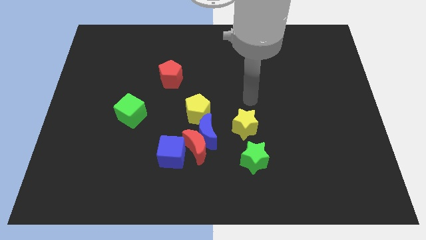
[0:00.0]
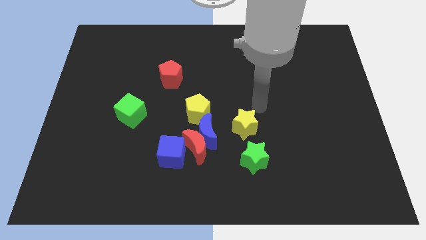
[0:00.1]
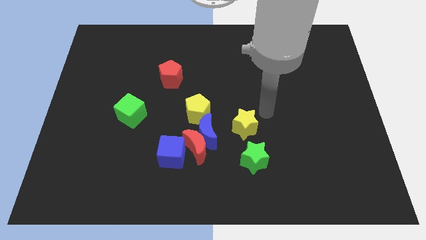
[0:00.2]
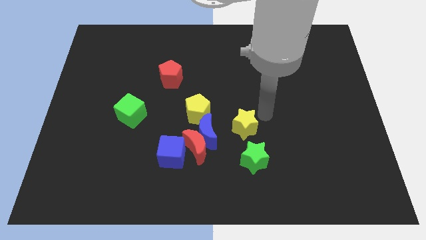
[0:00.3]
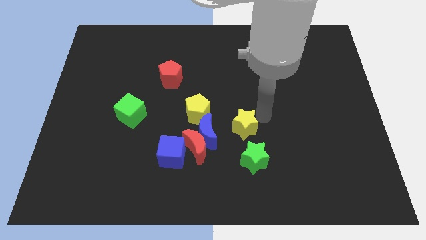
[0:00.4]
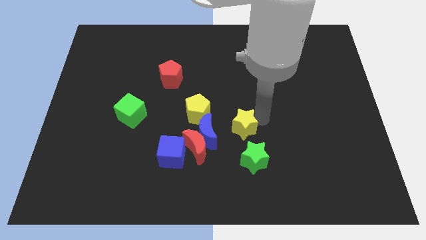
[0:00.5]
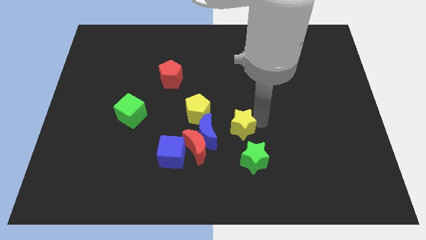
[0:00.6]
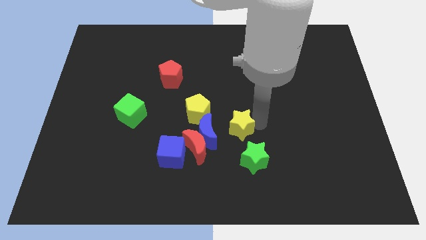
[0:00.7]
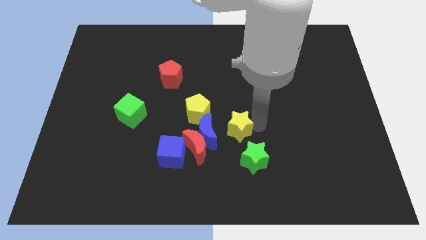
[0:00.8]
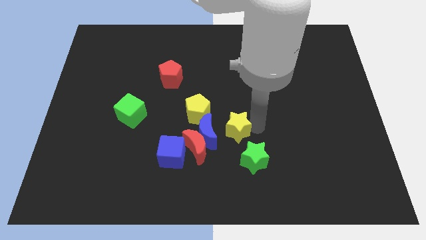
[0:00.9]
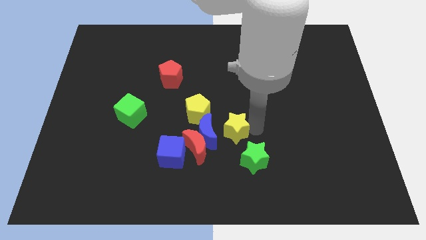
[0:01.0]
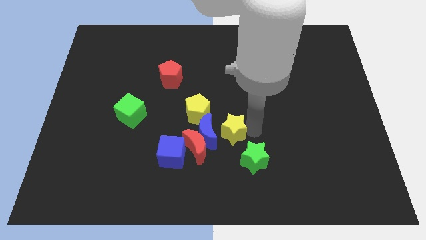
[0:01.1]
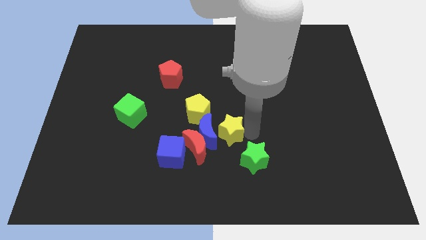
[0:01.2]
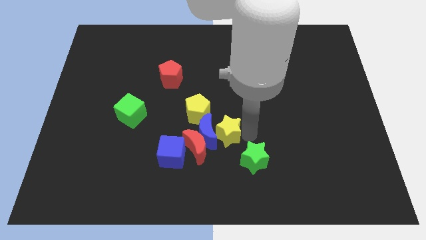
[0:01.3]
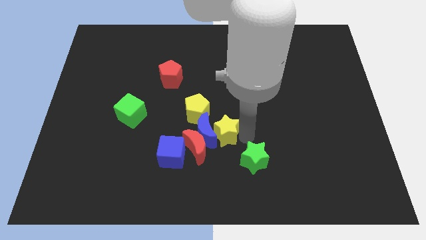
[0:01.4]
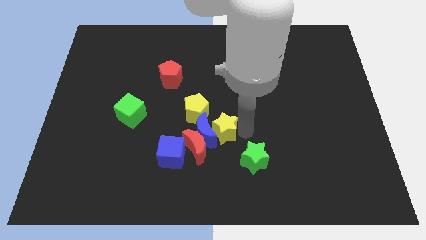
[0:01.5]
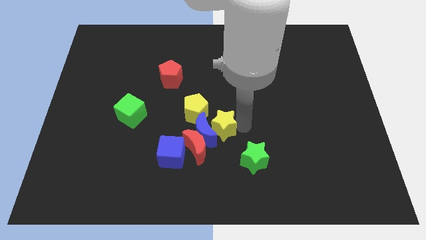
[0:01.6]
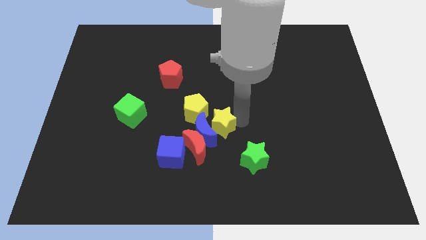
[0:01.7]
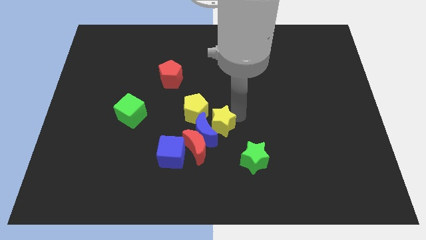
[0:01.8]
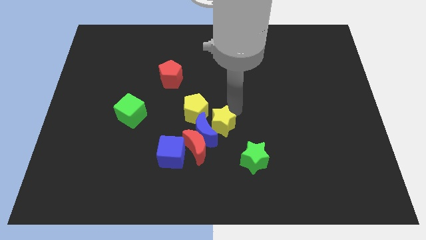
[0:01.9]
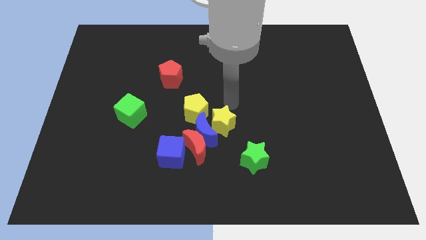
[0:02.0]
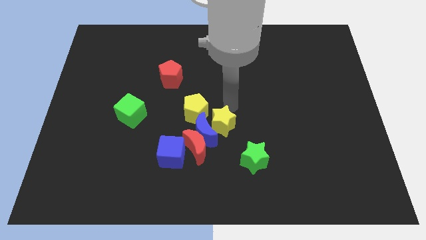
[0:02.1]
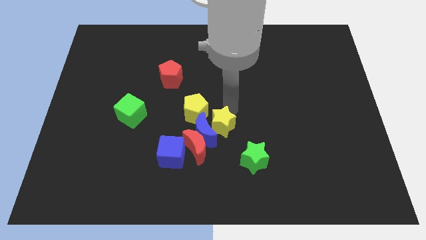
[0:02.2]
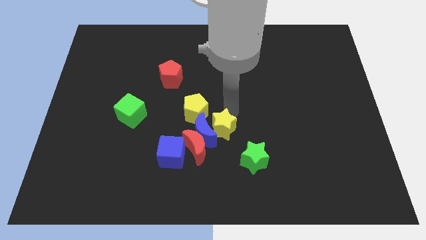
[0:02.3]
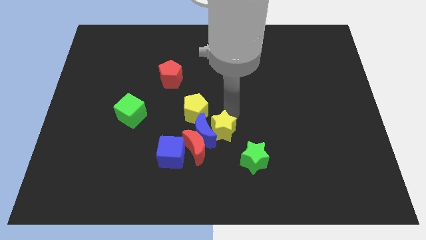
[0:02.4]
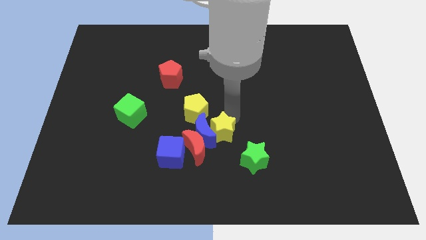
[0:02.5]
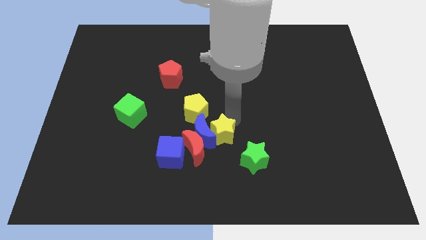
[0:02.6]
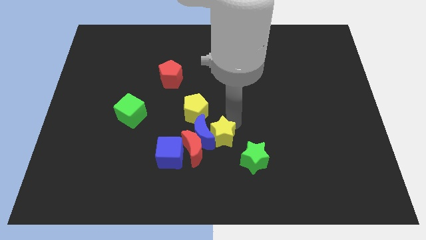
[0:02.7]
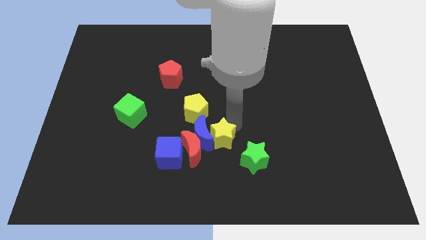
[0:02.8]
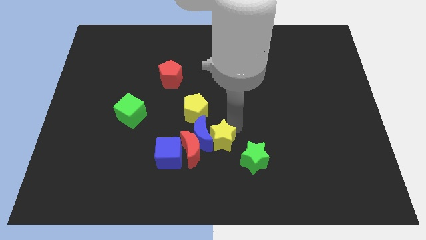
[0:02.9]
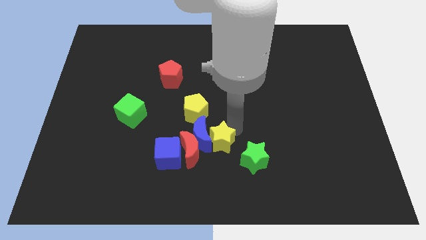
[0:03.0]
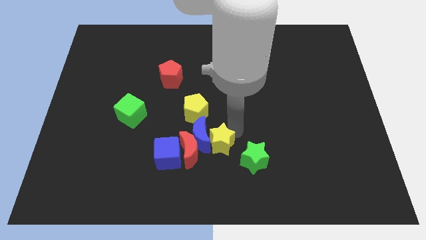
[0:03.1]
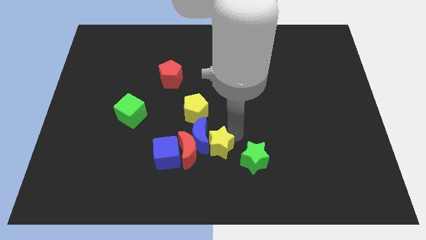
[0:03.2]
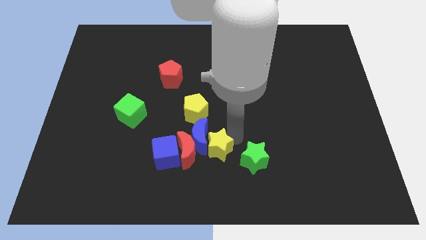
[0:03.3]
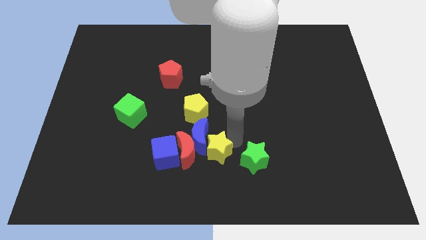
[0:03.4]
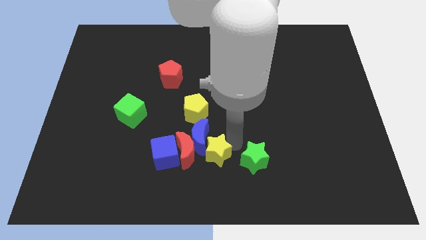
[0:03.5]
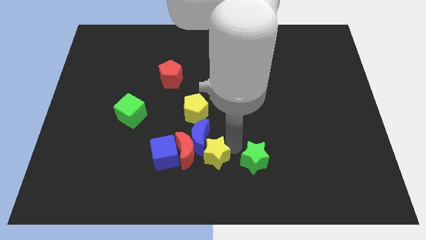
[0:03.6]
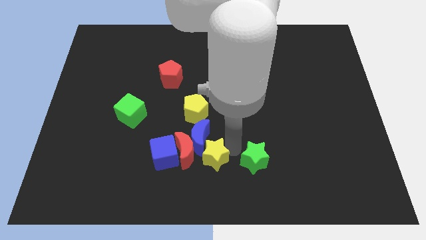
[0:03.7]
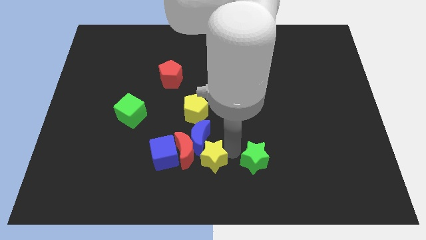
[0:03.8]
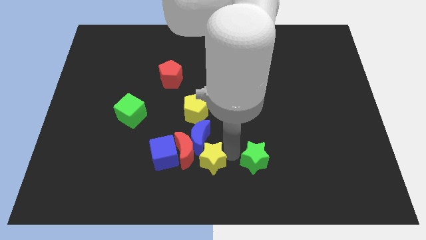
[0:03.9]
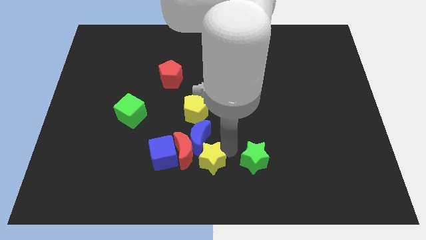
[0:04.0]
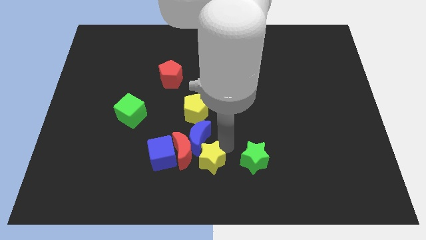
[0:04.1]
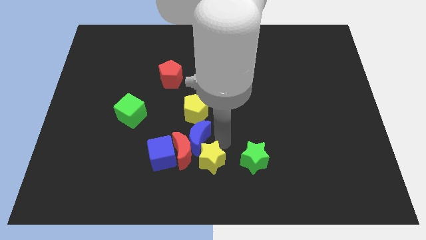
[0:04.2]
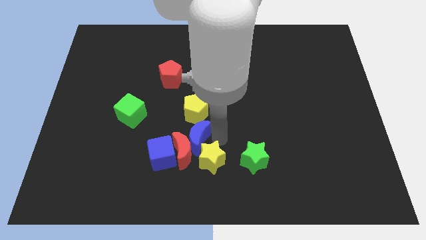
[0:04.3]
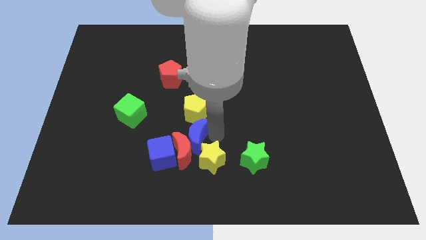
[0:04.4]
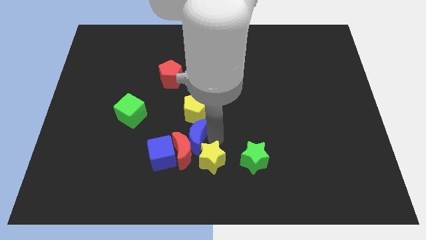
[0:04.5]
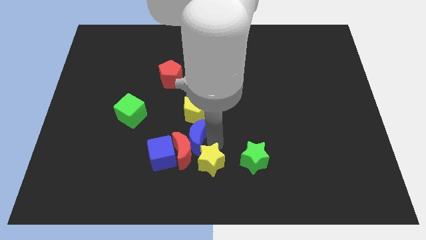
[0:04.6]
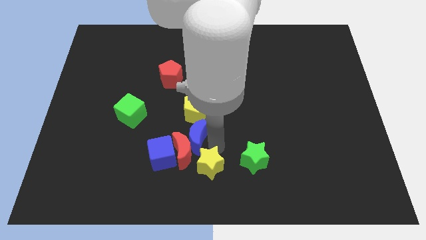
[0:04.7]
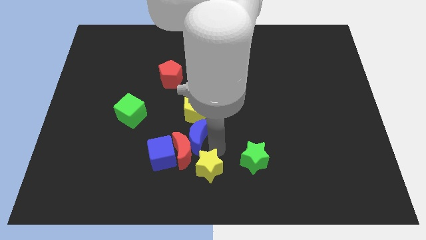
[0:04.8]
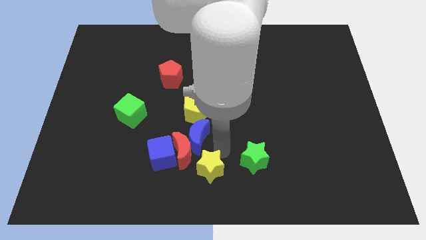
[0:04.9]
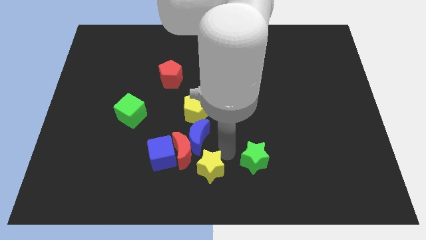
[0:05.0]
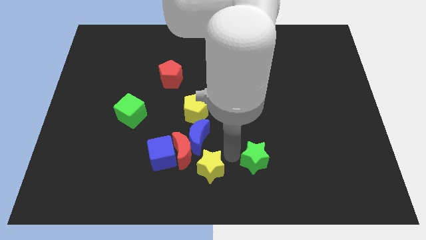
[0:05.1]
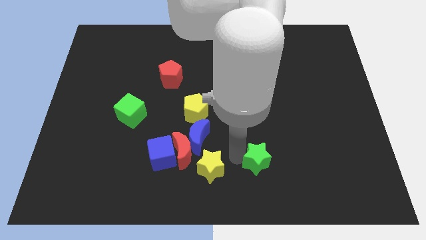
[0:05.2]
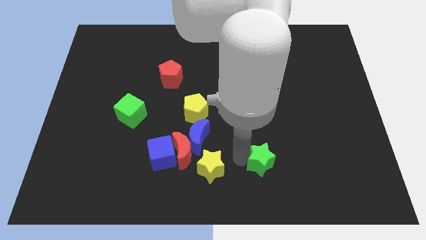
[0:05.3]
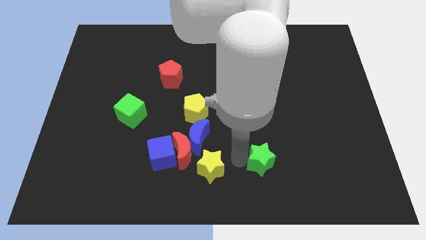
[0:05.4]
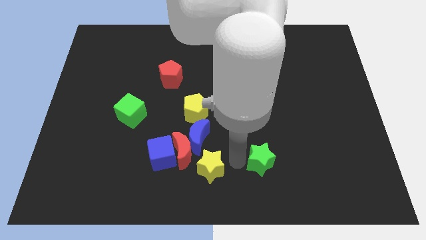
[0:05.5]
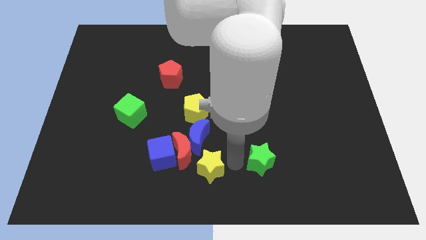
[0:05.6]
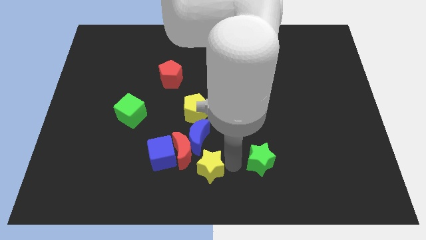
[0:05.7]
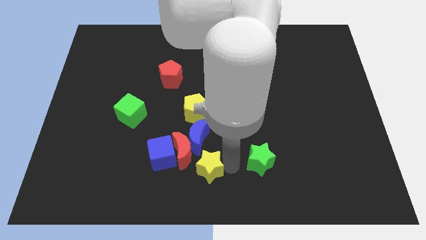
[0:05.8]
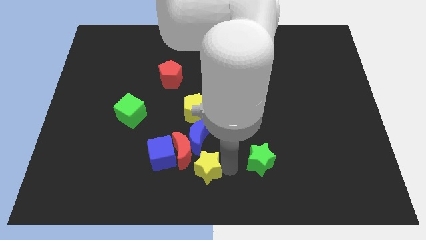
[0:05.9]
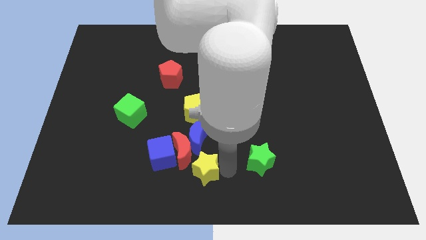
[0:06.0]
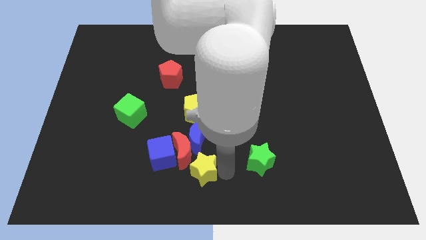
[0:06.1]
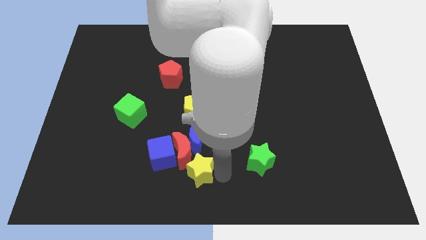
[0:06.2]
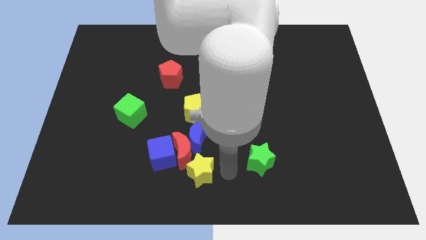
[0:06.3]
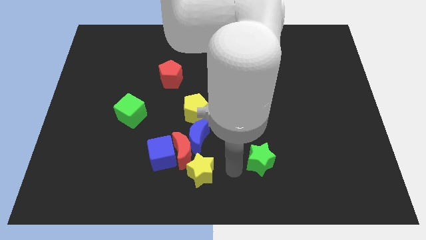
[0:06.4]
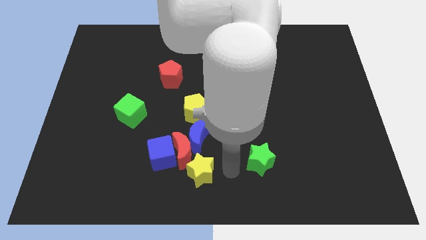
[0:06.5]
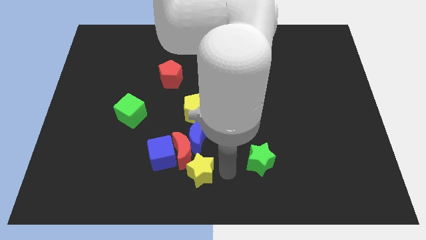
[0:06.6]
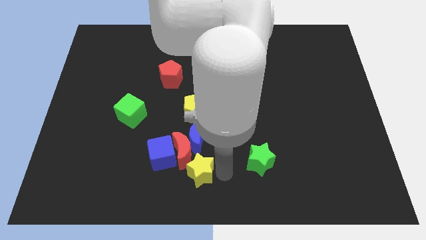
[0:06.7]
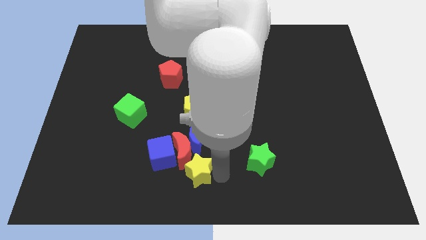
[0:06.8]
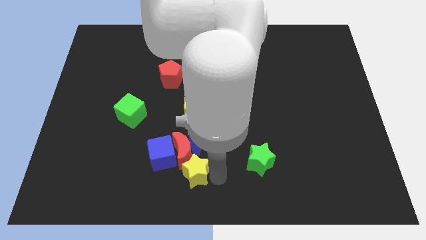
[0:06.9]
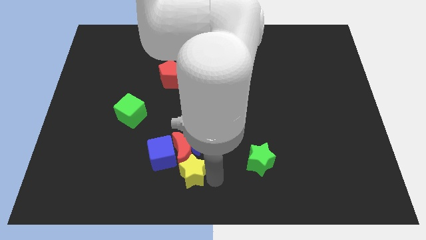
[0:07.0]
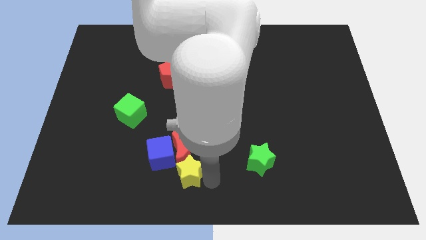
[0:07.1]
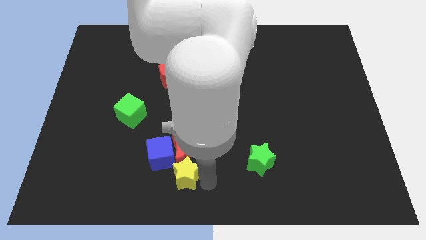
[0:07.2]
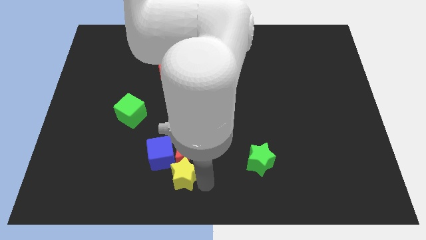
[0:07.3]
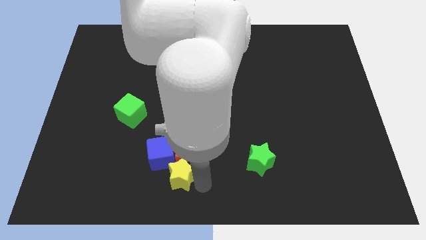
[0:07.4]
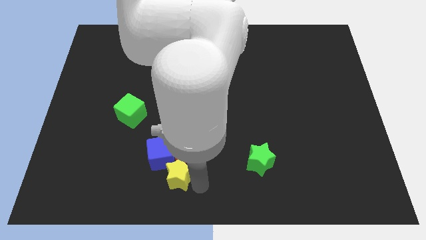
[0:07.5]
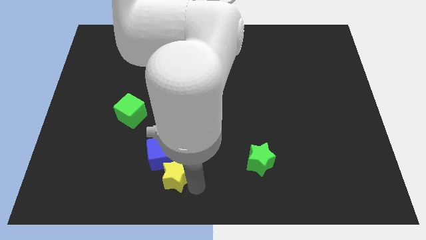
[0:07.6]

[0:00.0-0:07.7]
slide the yellow star to the blue cube
